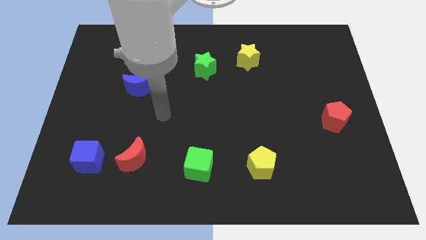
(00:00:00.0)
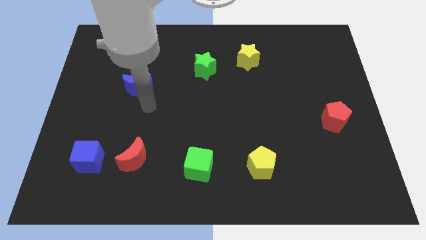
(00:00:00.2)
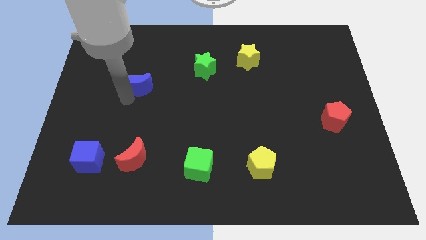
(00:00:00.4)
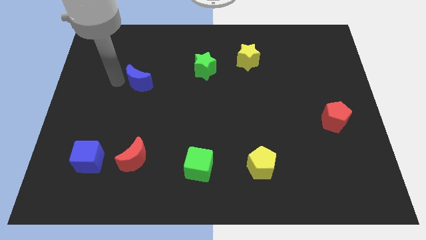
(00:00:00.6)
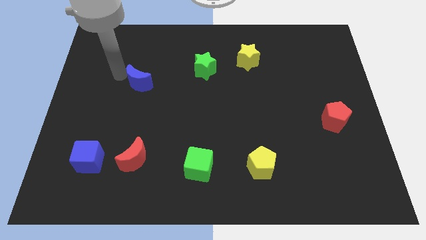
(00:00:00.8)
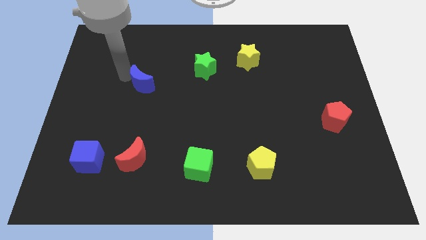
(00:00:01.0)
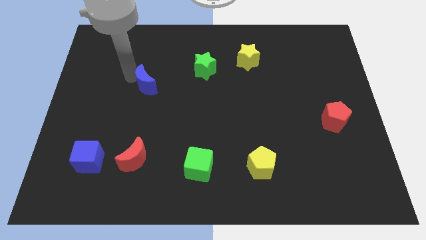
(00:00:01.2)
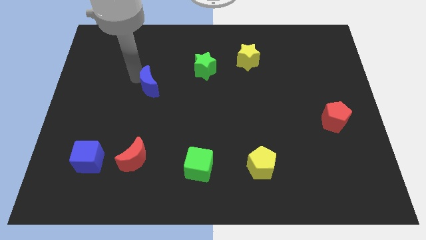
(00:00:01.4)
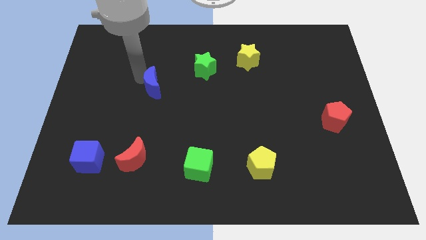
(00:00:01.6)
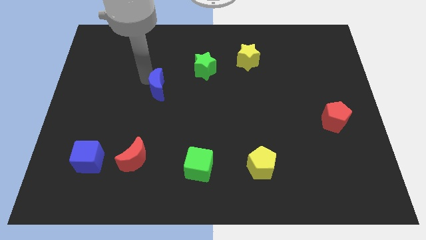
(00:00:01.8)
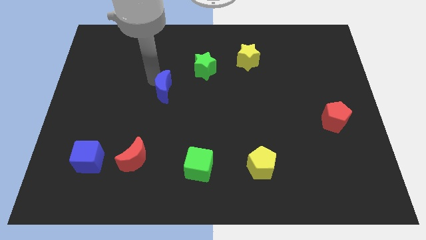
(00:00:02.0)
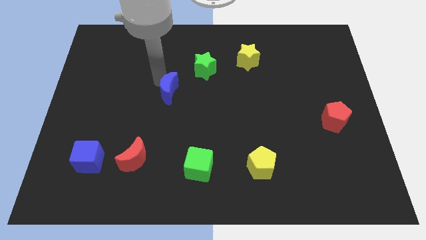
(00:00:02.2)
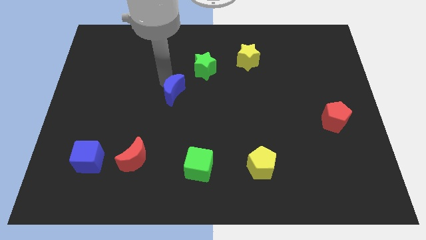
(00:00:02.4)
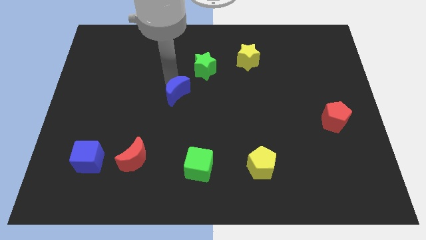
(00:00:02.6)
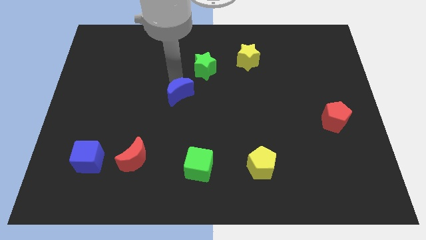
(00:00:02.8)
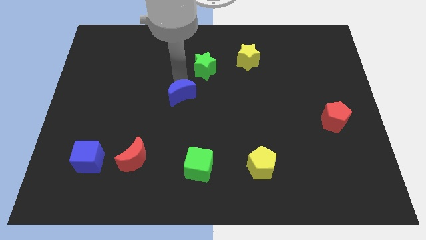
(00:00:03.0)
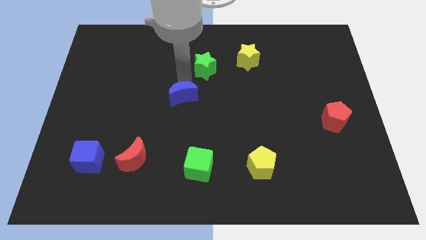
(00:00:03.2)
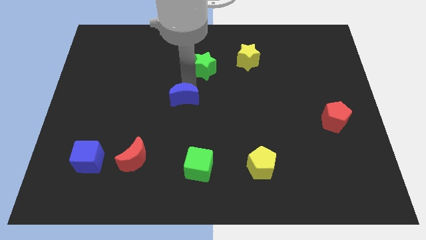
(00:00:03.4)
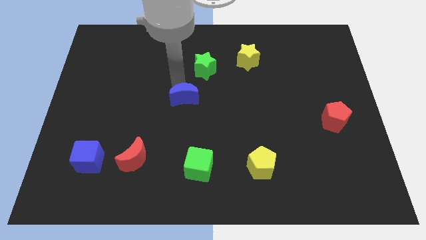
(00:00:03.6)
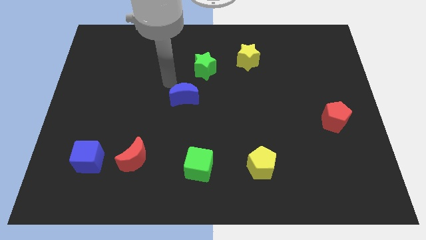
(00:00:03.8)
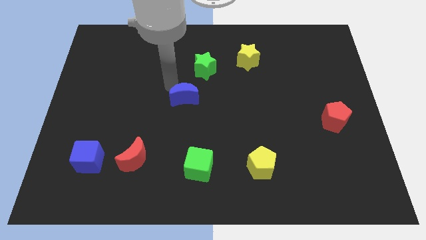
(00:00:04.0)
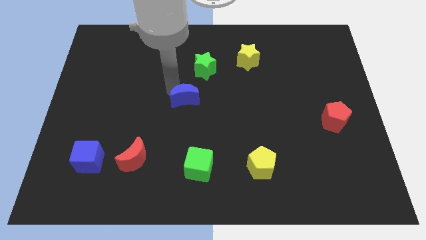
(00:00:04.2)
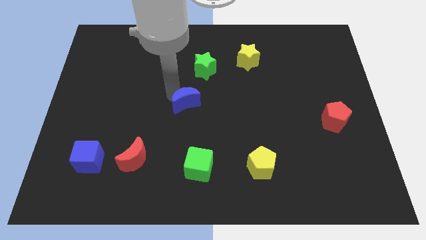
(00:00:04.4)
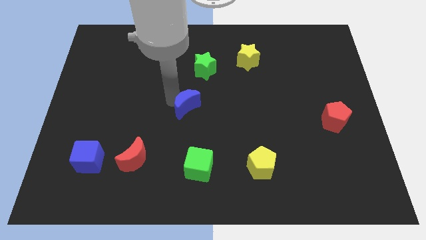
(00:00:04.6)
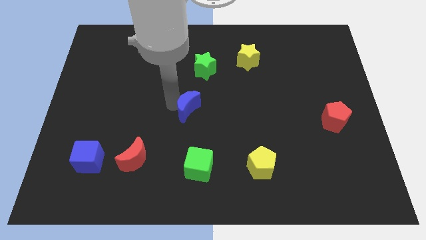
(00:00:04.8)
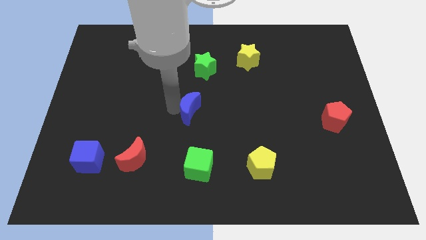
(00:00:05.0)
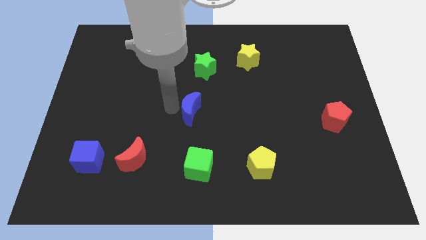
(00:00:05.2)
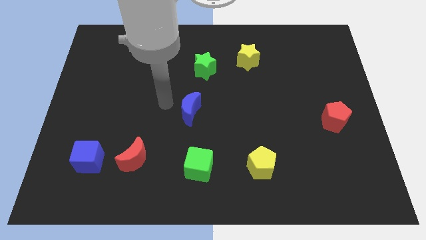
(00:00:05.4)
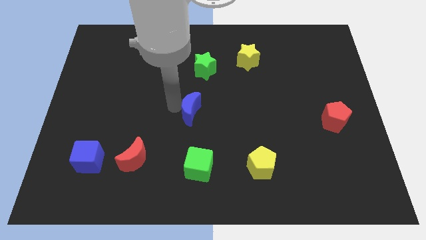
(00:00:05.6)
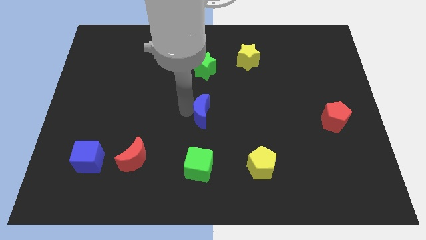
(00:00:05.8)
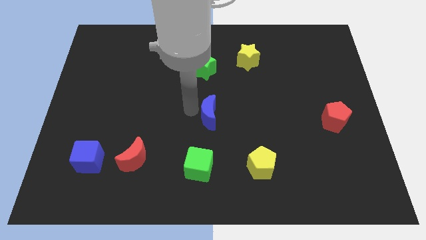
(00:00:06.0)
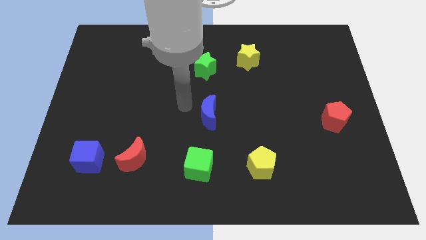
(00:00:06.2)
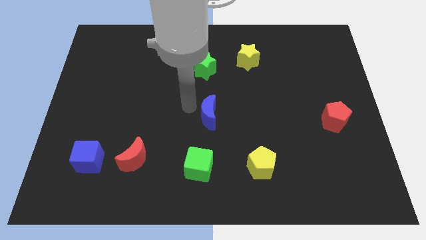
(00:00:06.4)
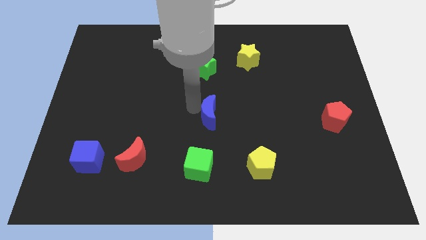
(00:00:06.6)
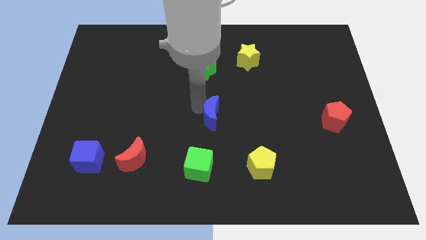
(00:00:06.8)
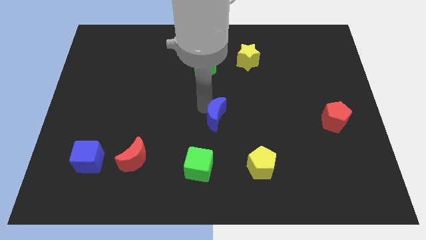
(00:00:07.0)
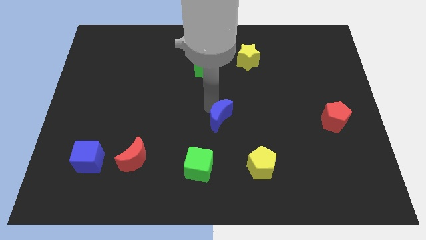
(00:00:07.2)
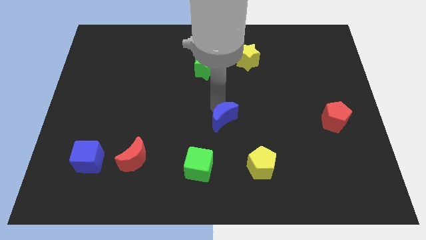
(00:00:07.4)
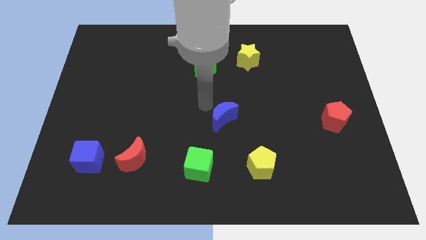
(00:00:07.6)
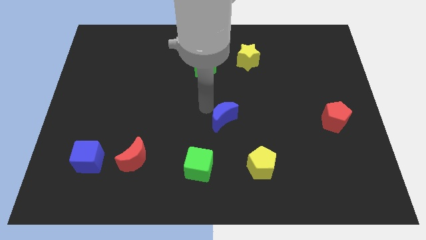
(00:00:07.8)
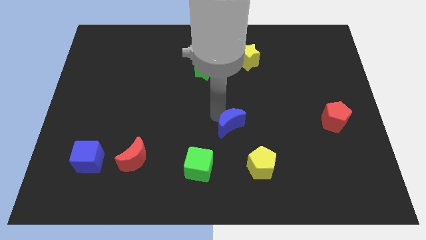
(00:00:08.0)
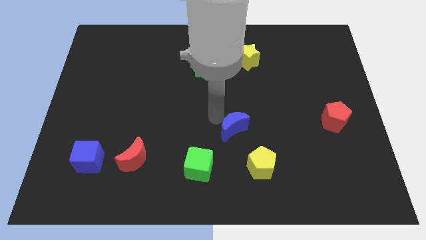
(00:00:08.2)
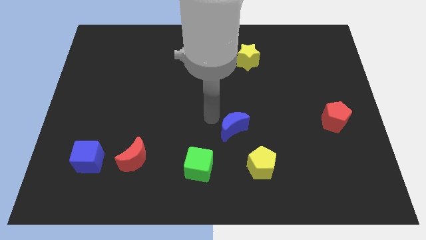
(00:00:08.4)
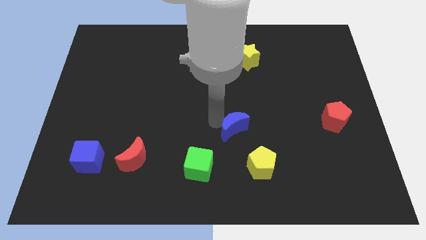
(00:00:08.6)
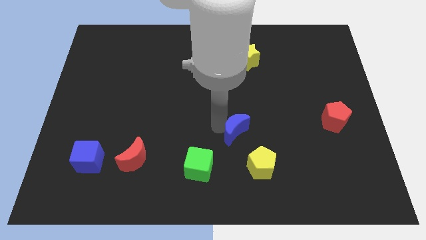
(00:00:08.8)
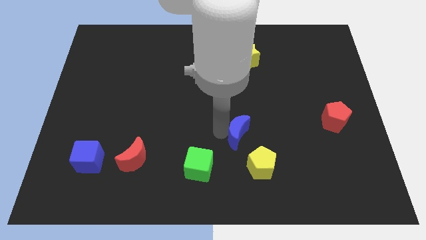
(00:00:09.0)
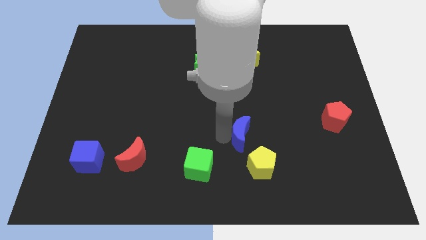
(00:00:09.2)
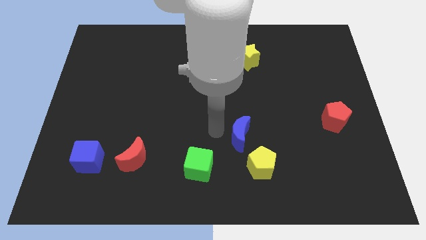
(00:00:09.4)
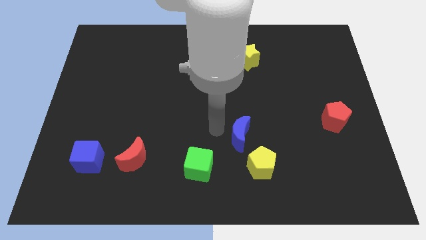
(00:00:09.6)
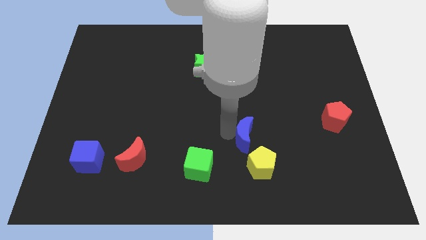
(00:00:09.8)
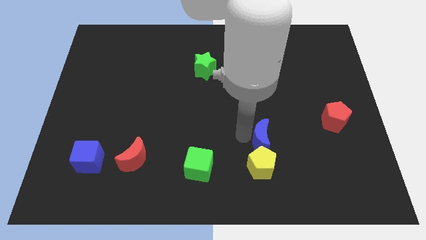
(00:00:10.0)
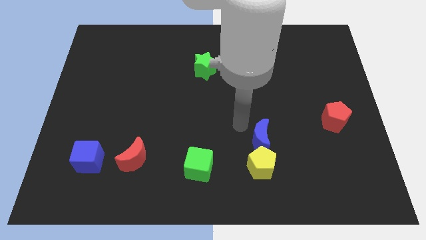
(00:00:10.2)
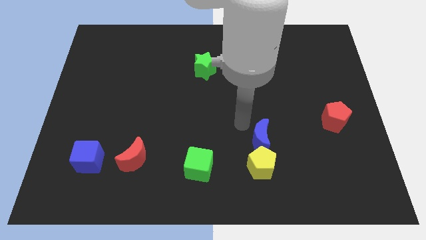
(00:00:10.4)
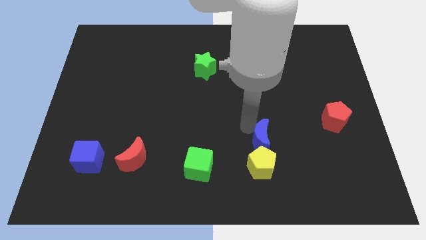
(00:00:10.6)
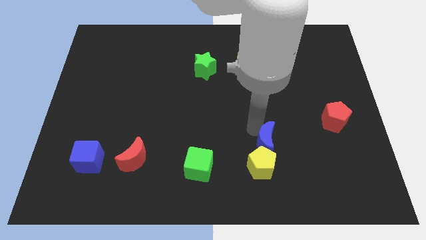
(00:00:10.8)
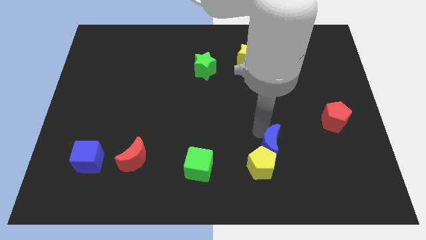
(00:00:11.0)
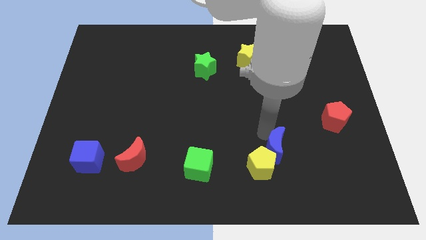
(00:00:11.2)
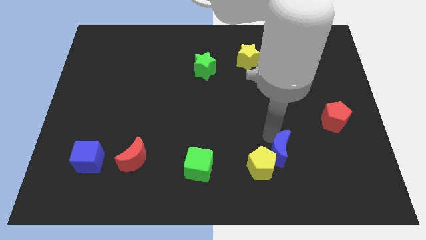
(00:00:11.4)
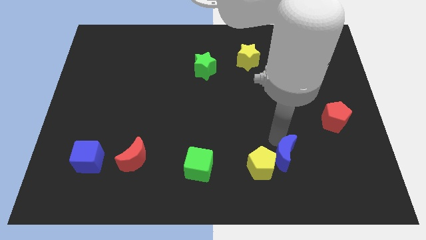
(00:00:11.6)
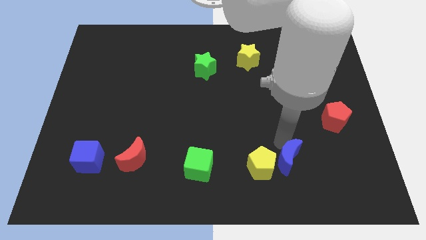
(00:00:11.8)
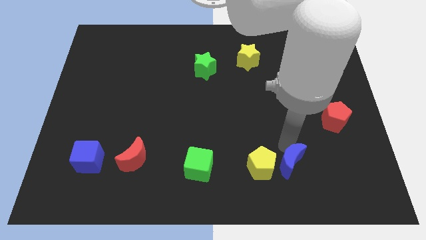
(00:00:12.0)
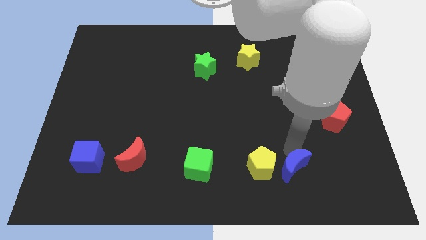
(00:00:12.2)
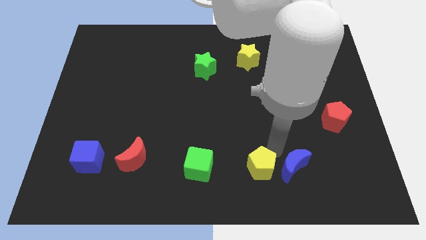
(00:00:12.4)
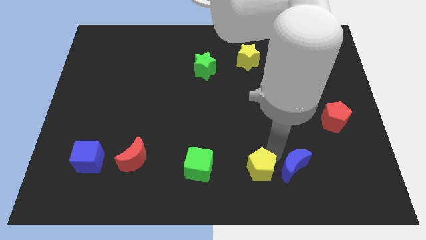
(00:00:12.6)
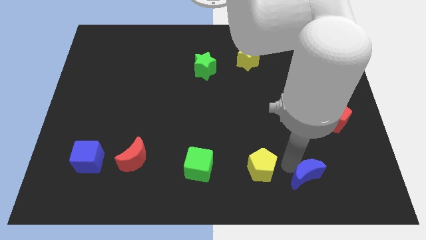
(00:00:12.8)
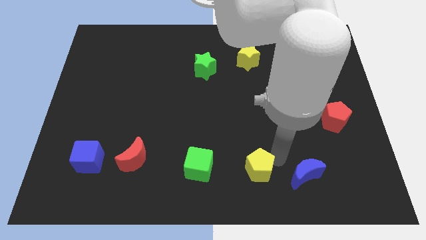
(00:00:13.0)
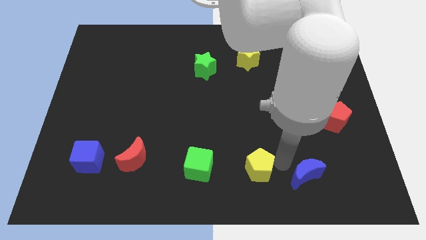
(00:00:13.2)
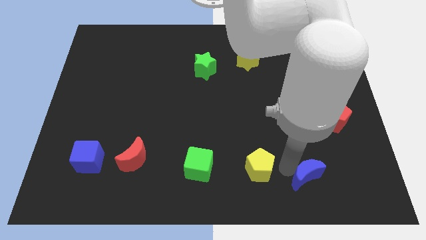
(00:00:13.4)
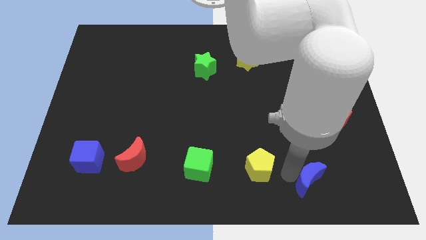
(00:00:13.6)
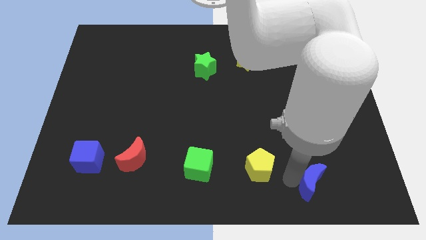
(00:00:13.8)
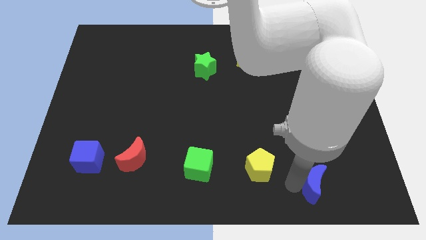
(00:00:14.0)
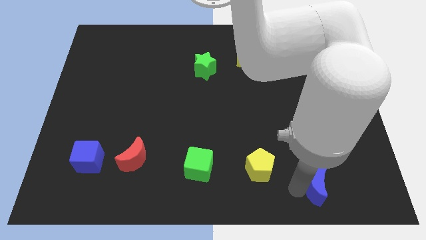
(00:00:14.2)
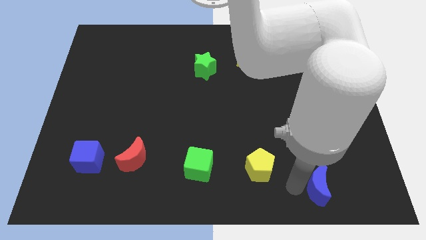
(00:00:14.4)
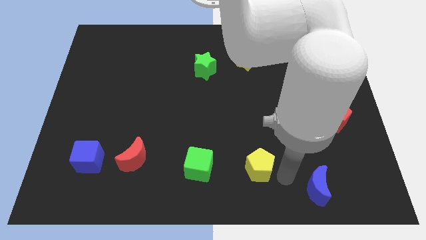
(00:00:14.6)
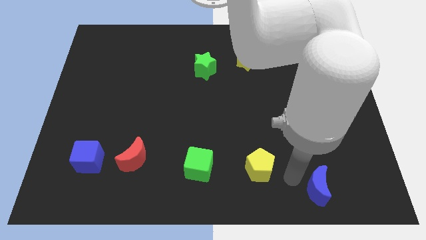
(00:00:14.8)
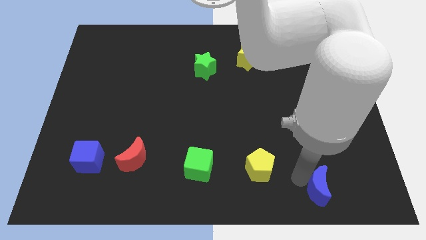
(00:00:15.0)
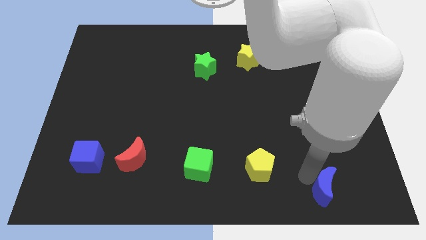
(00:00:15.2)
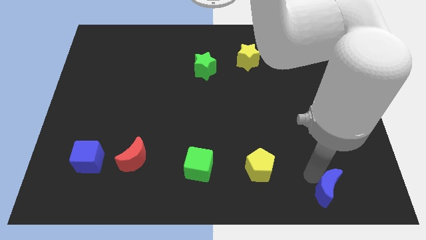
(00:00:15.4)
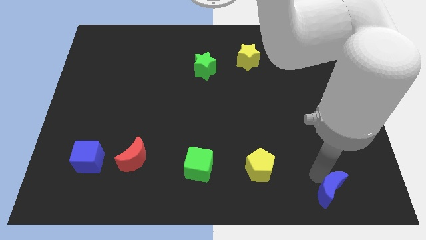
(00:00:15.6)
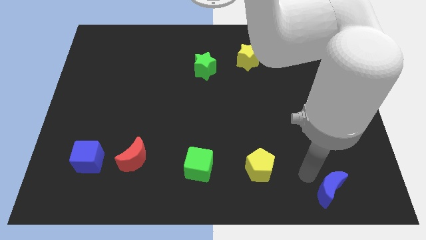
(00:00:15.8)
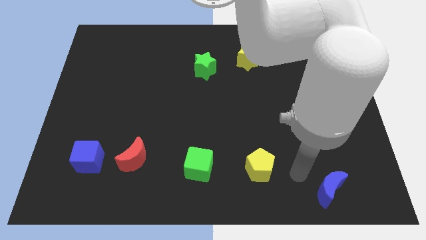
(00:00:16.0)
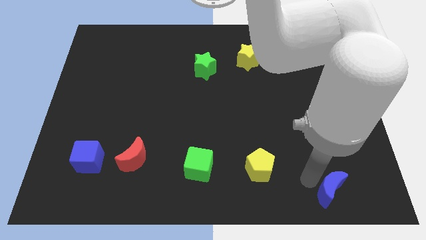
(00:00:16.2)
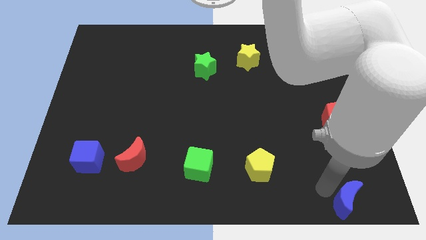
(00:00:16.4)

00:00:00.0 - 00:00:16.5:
put the blue moon to the bottom right corner
